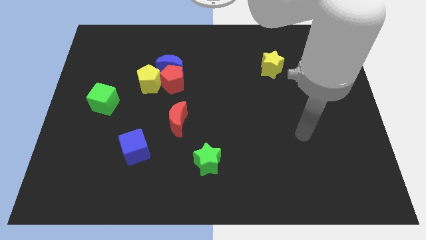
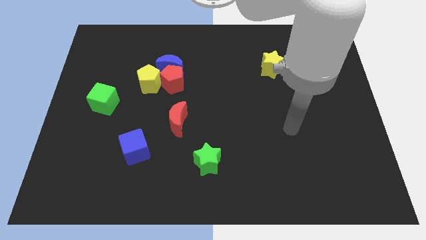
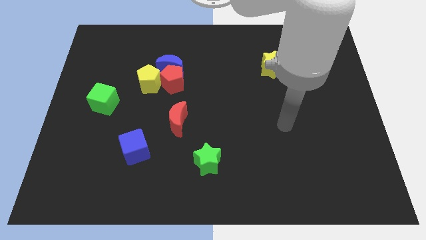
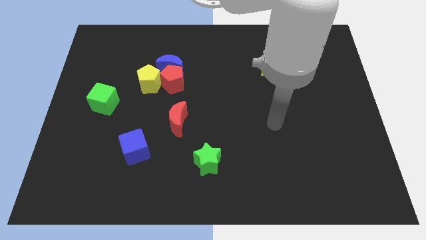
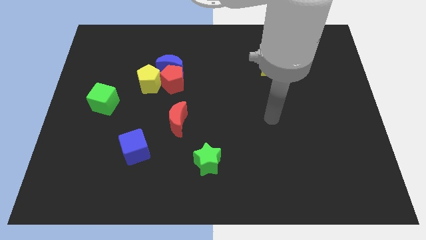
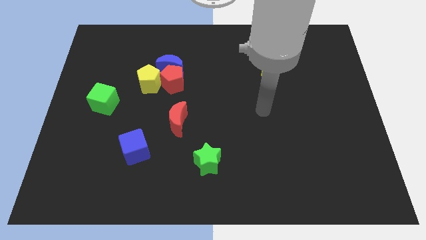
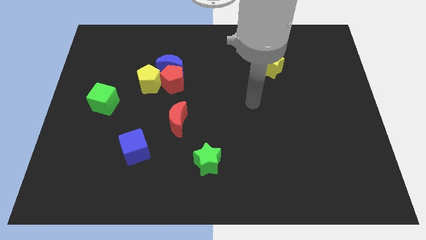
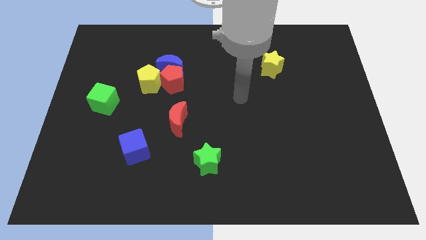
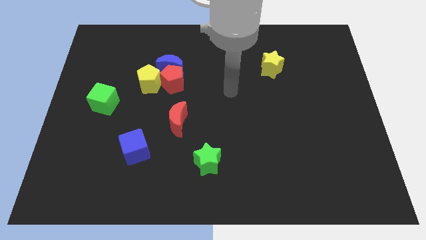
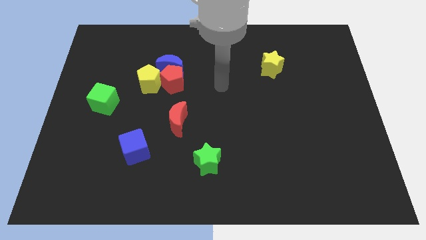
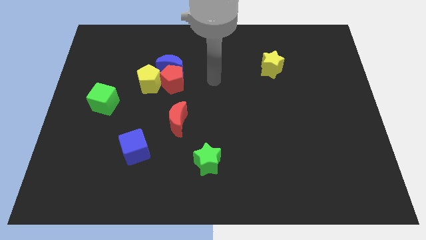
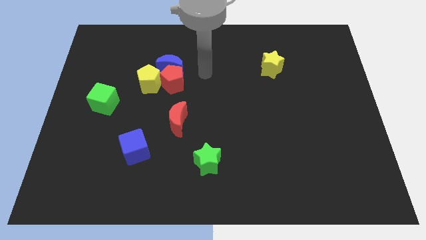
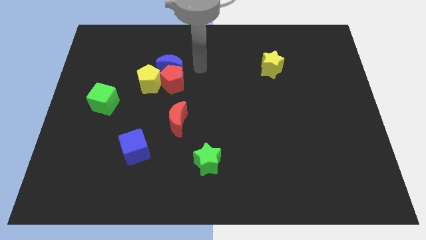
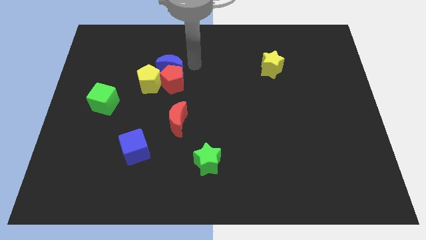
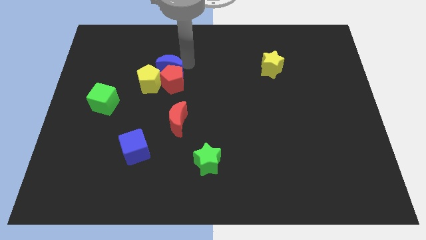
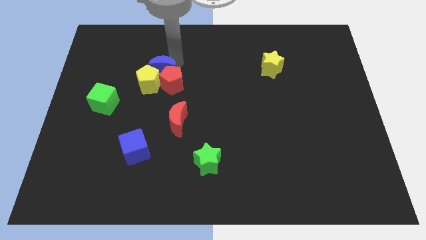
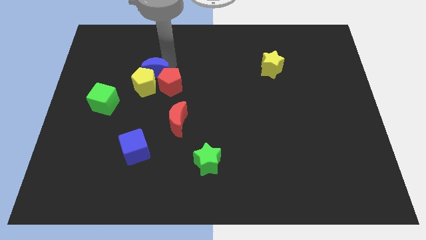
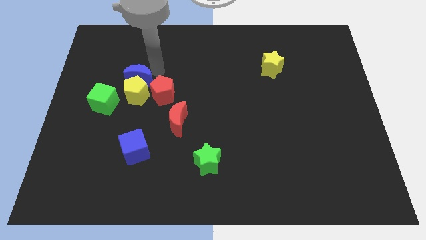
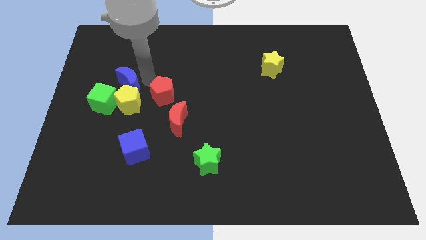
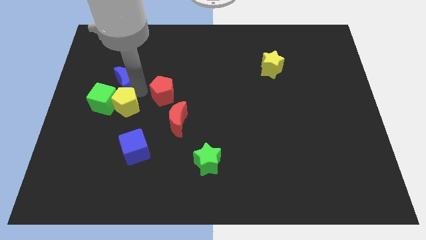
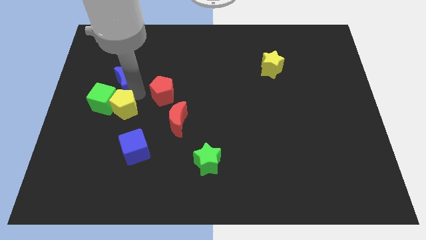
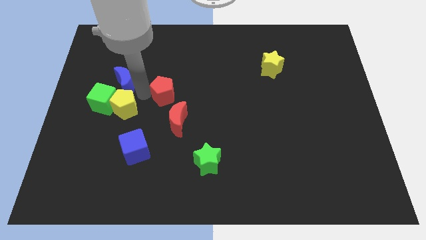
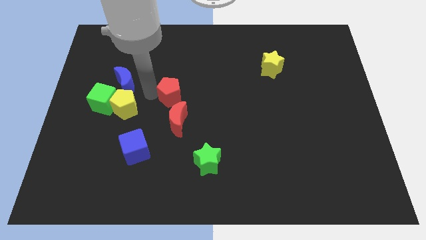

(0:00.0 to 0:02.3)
move the red pentagon away from the blue moon and yellow pentagon

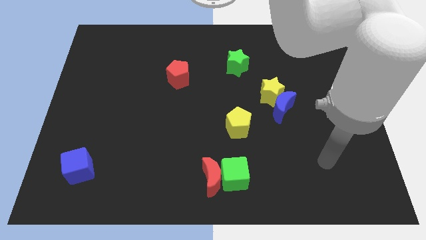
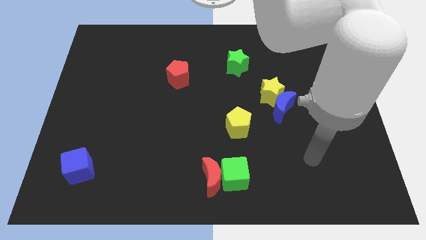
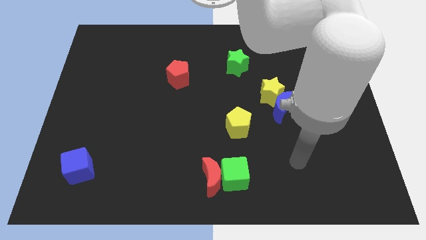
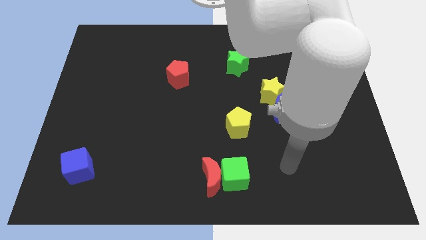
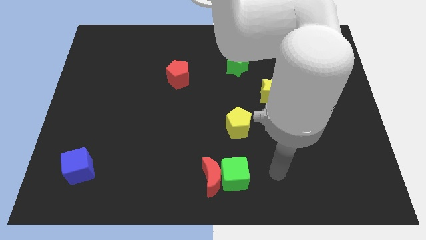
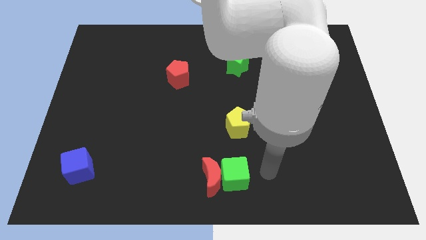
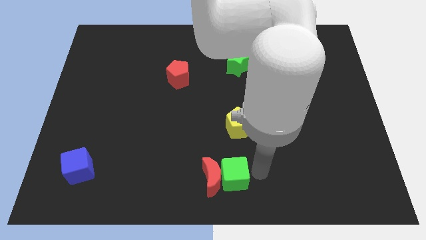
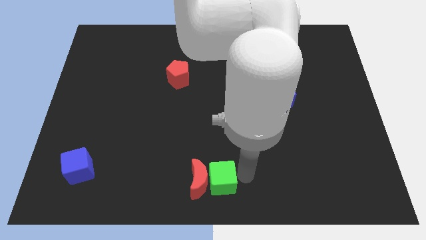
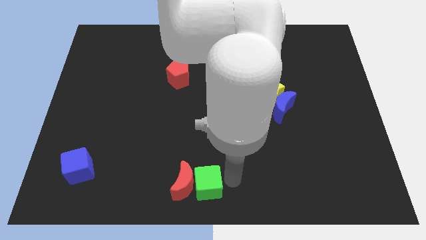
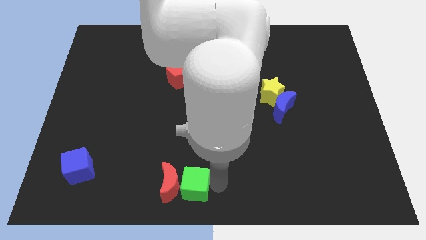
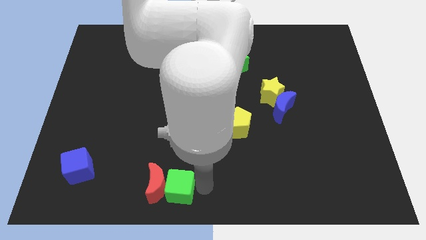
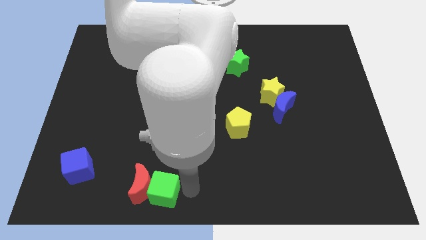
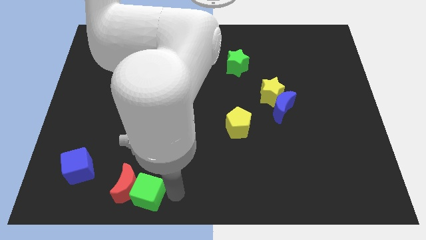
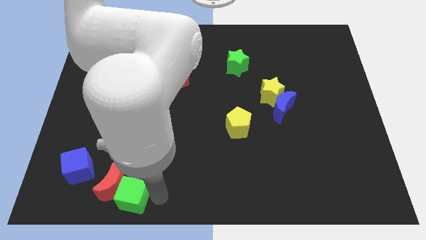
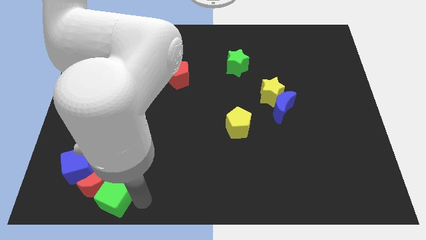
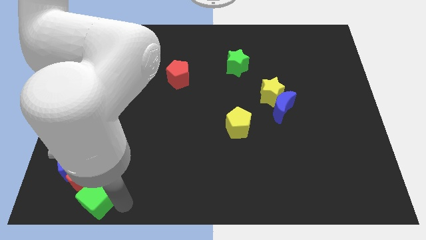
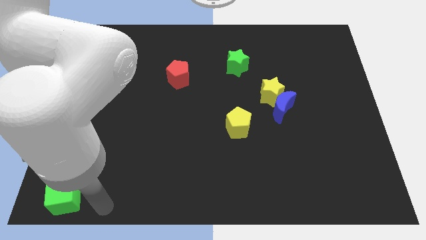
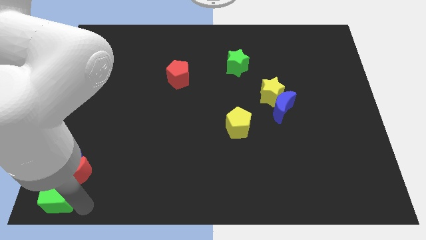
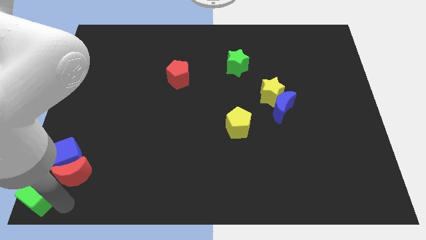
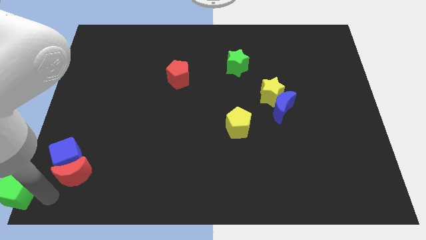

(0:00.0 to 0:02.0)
pull the red moon apart from the green cube

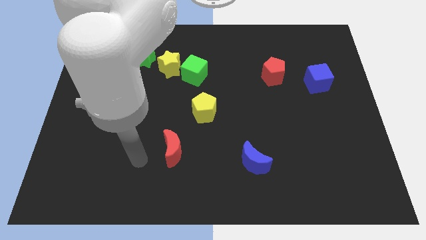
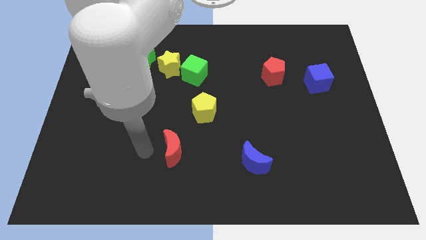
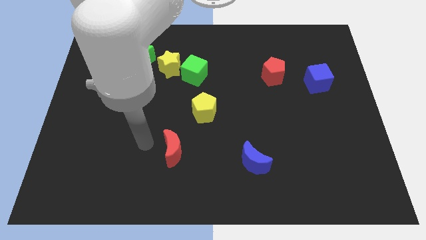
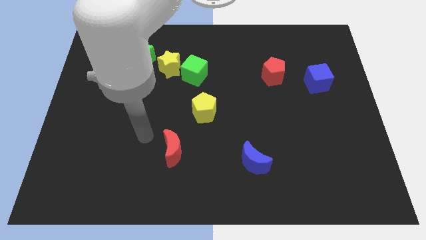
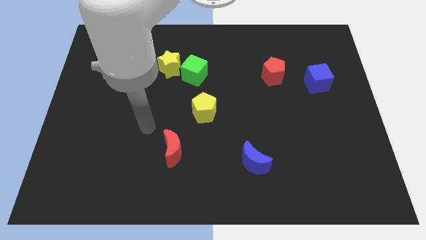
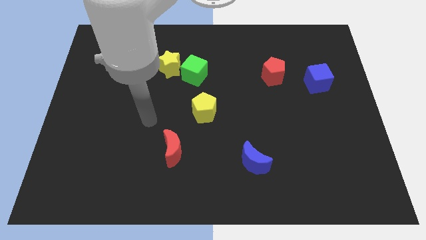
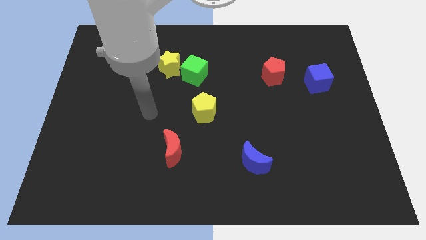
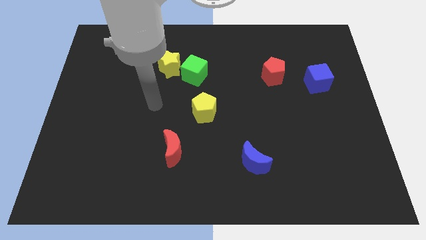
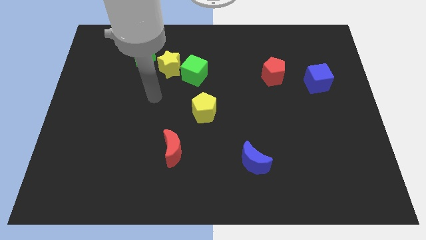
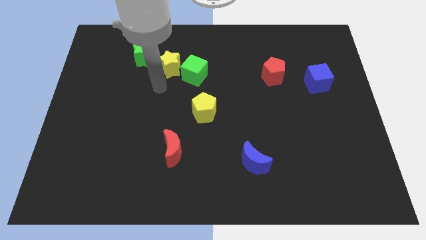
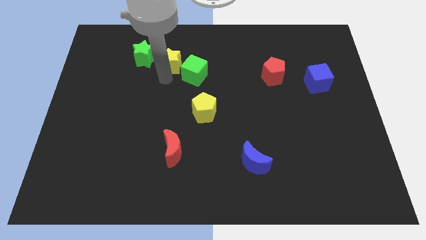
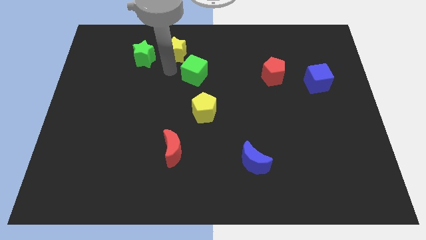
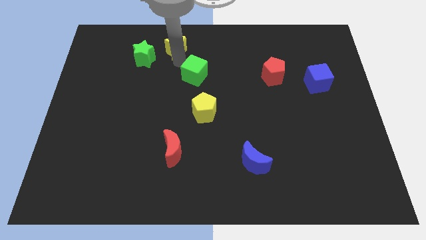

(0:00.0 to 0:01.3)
pull the green cube apart from the yellow star

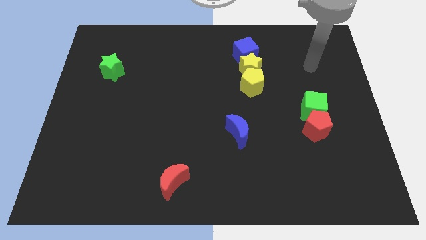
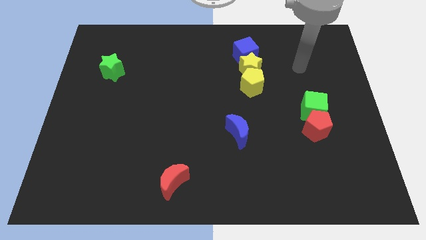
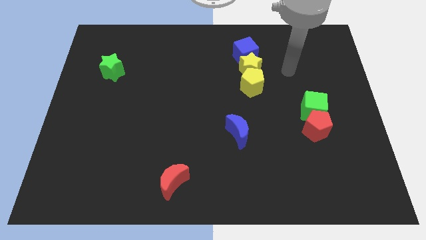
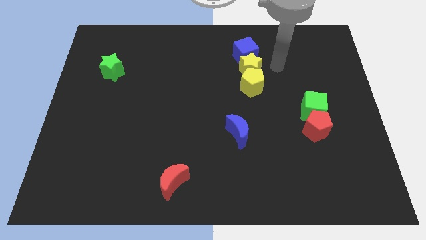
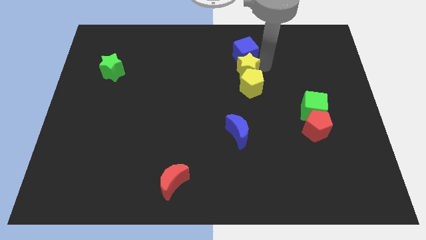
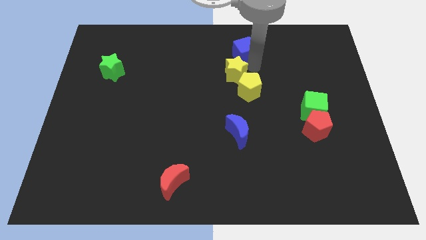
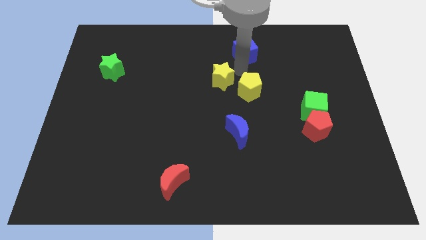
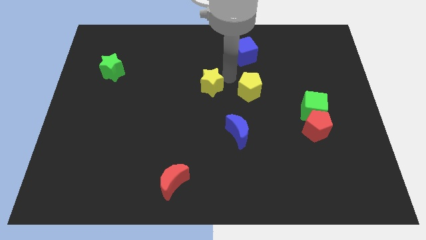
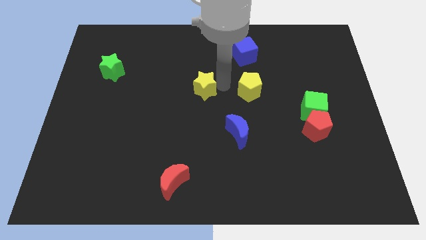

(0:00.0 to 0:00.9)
pull the yellow pentagon apart from the yellow star

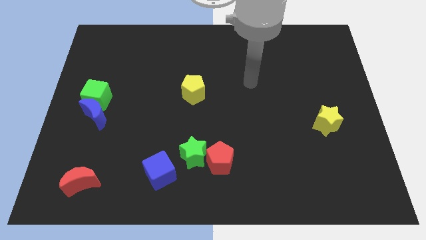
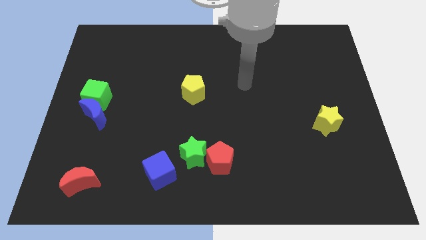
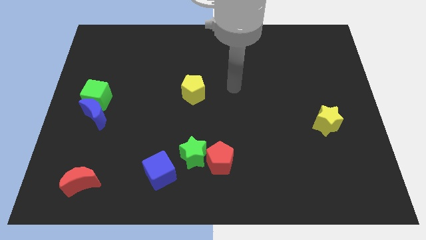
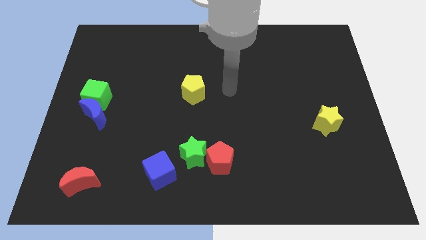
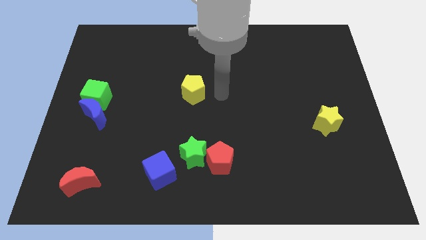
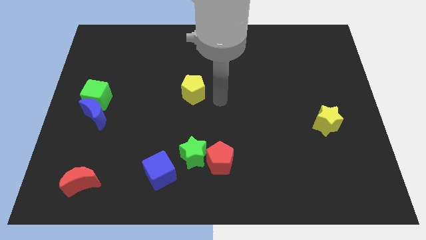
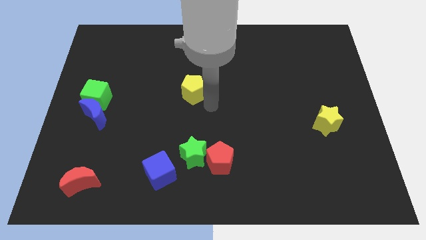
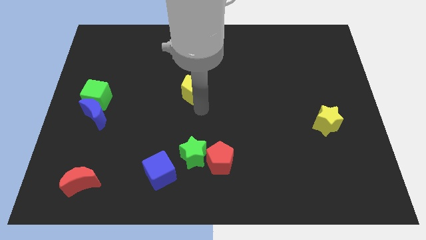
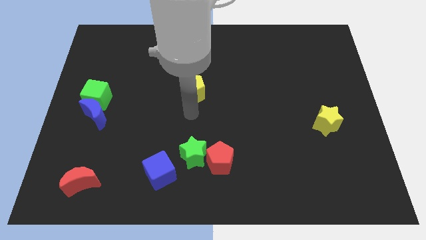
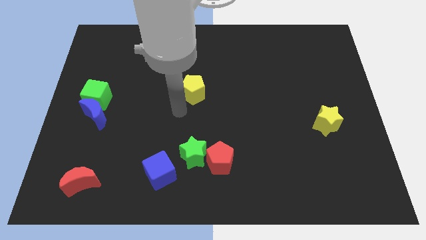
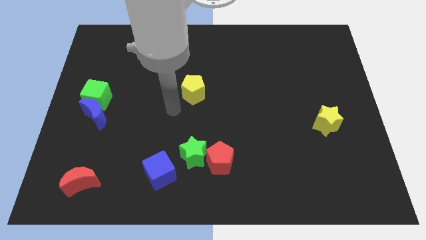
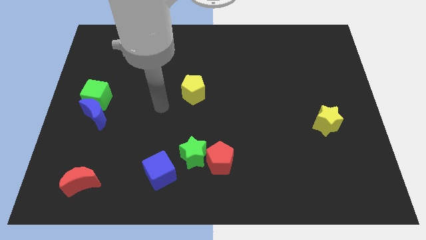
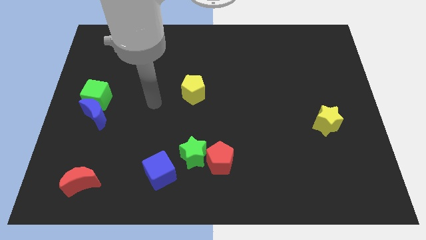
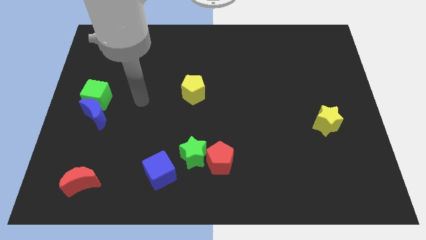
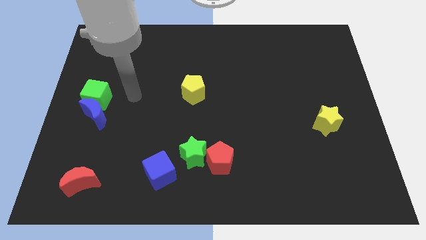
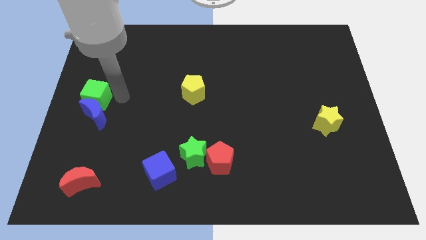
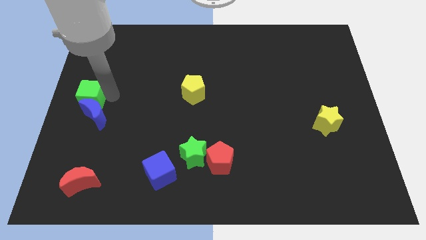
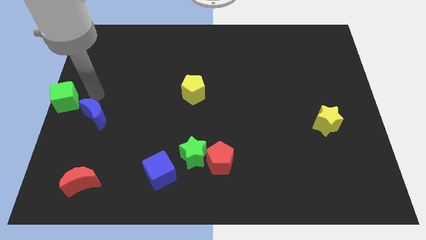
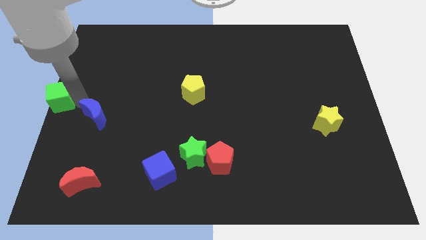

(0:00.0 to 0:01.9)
separate the blue moon from the green cube

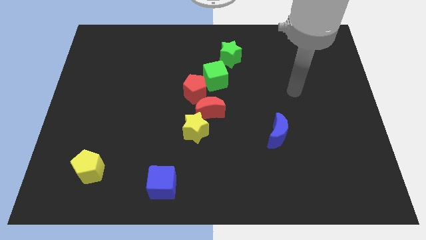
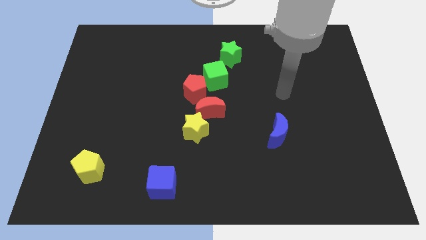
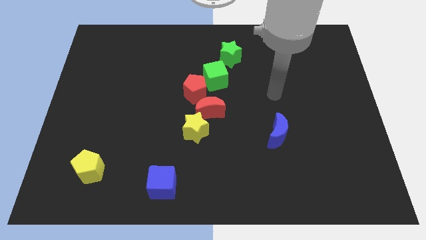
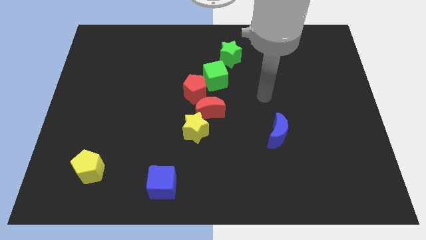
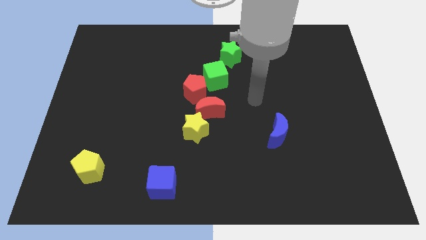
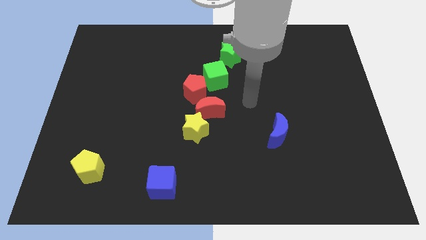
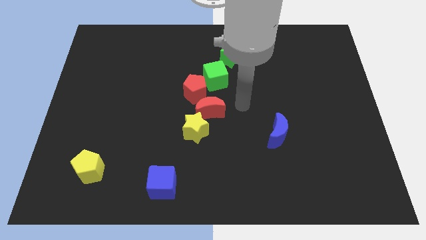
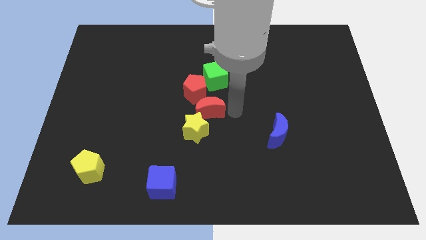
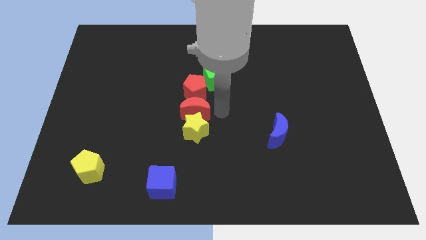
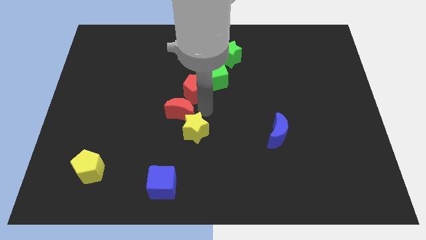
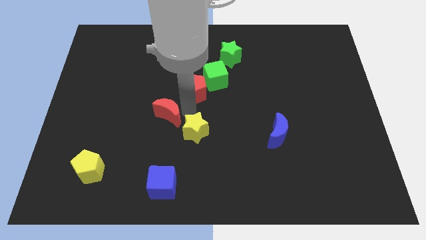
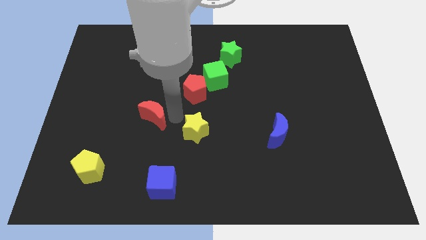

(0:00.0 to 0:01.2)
move the yellow star away from the red moon
